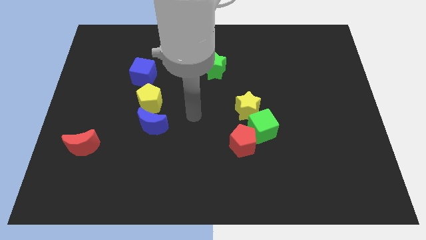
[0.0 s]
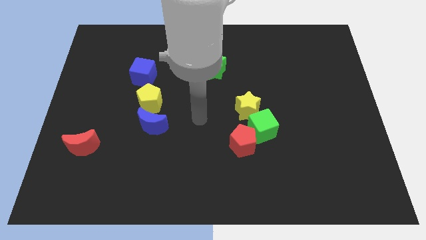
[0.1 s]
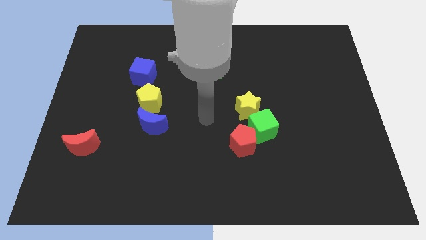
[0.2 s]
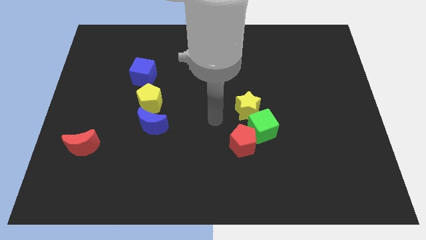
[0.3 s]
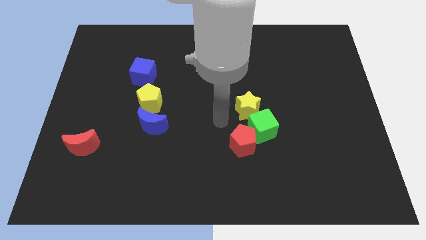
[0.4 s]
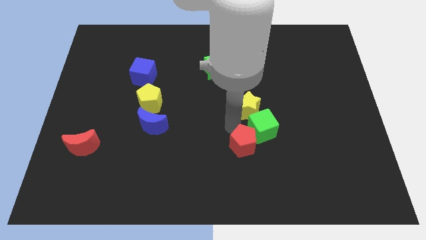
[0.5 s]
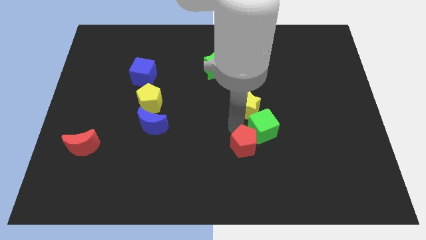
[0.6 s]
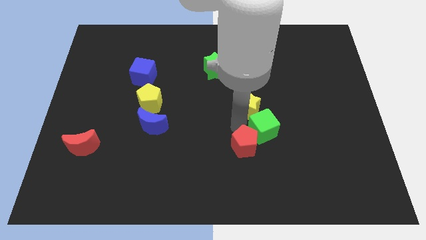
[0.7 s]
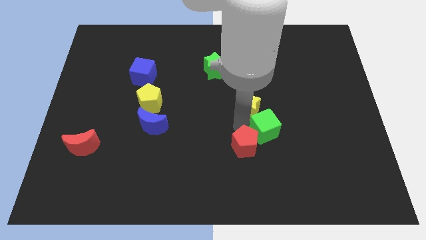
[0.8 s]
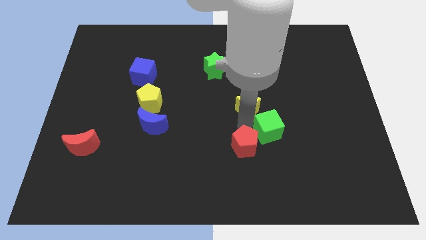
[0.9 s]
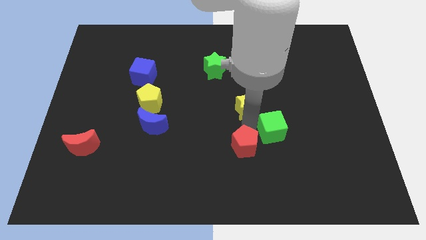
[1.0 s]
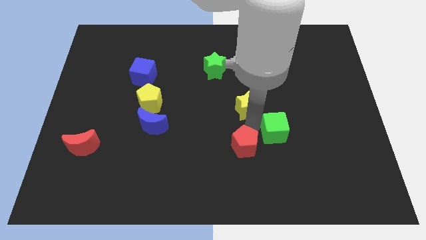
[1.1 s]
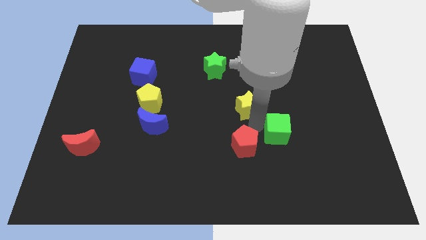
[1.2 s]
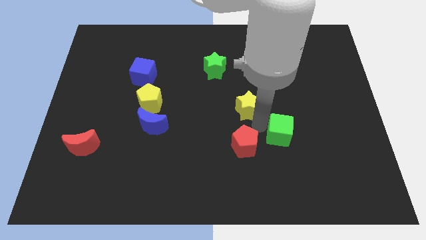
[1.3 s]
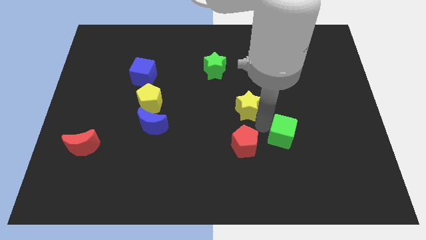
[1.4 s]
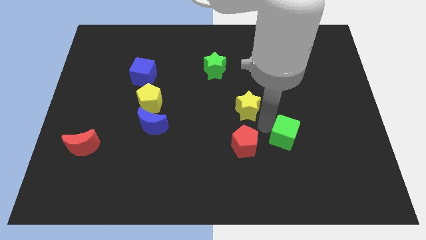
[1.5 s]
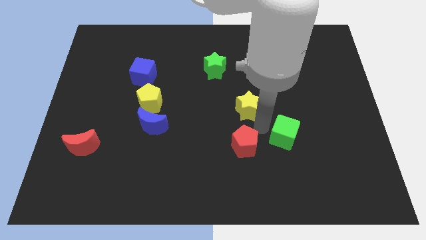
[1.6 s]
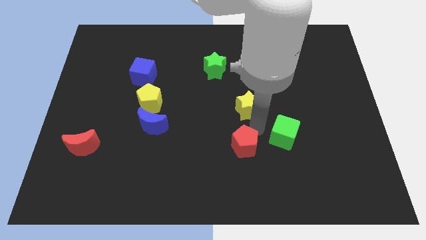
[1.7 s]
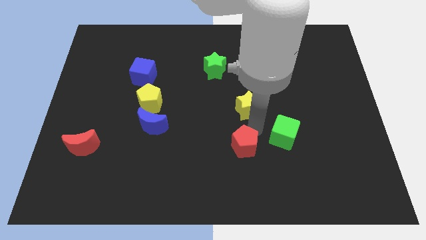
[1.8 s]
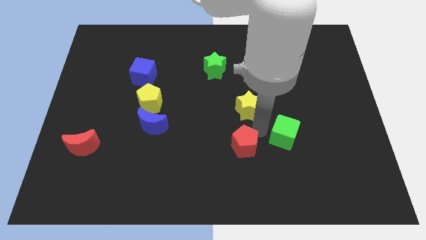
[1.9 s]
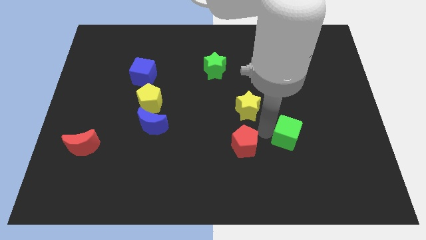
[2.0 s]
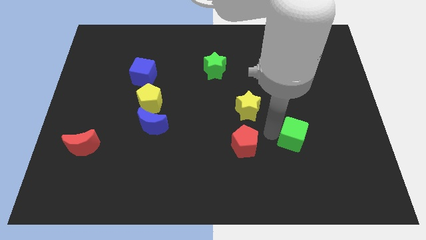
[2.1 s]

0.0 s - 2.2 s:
move the green cube away from the red pentagon and yellow star

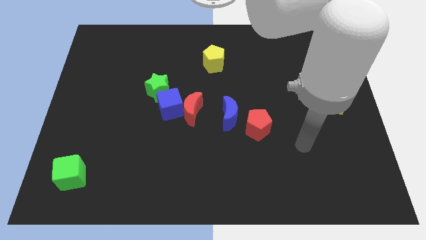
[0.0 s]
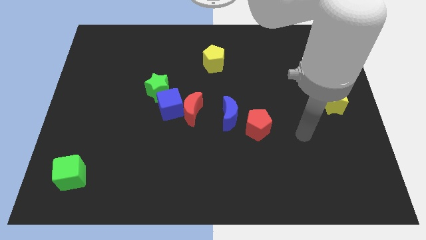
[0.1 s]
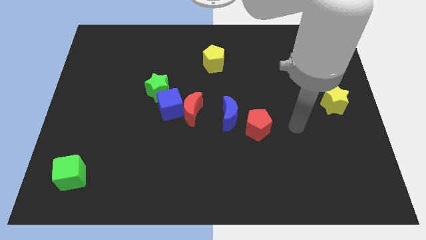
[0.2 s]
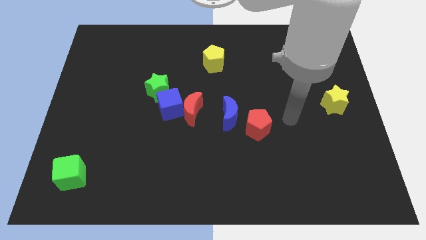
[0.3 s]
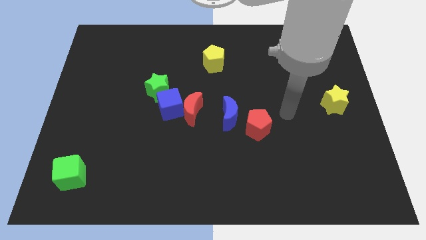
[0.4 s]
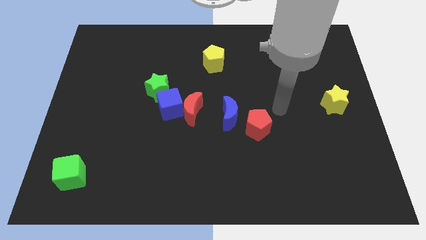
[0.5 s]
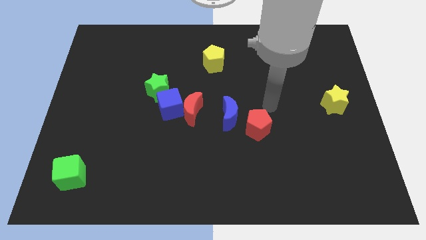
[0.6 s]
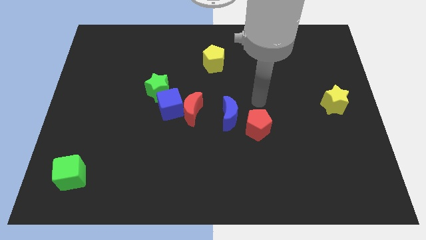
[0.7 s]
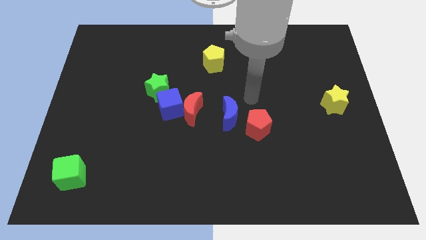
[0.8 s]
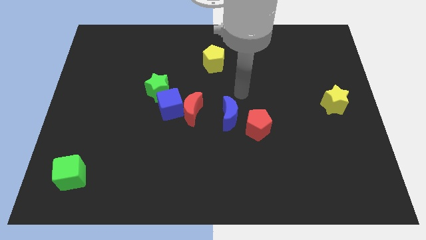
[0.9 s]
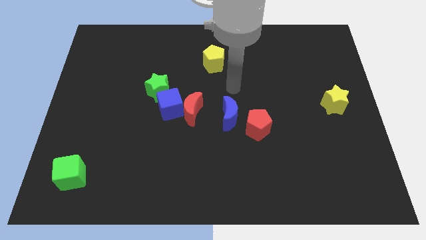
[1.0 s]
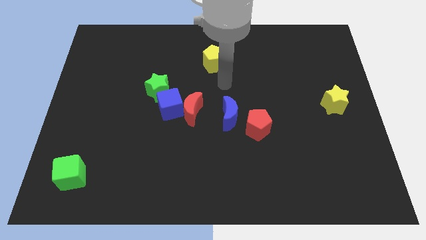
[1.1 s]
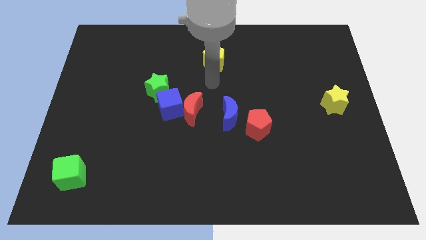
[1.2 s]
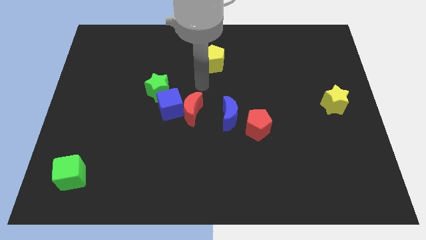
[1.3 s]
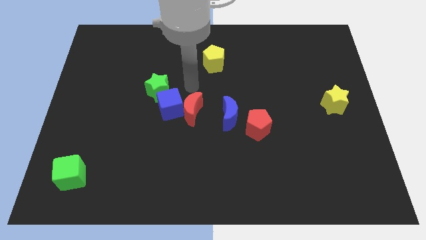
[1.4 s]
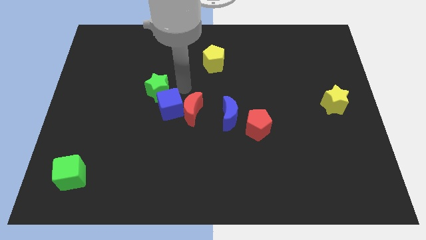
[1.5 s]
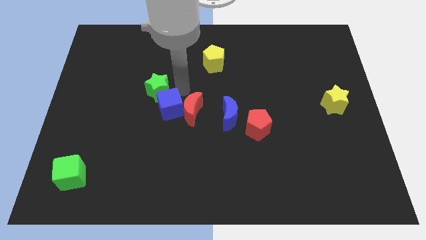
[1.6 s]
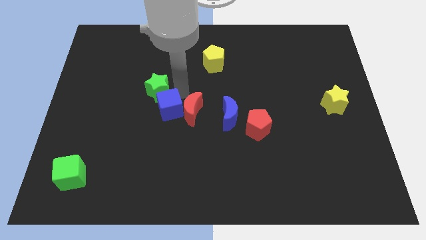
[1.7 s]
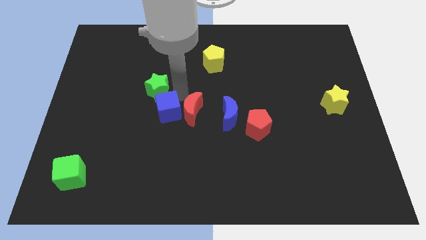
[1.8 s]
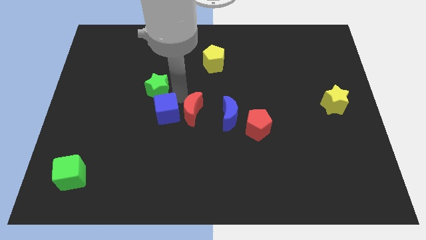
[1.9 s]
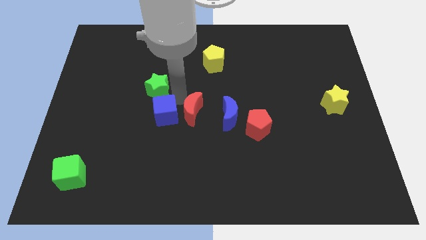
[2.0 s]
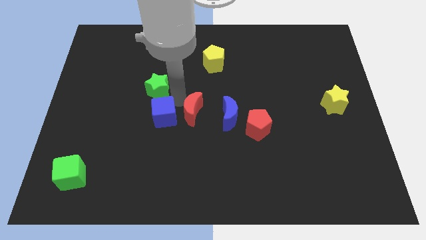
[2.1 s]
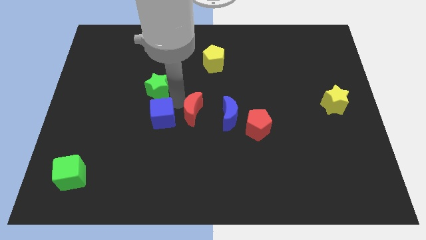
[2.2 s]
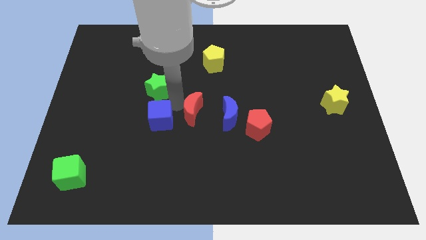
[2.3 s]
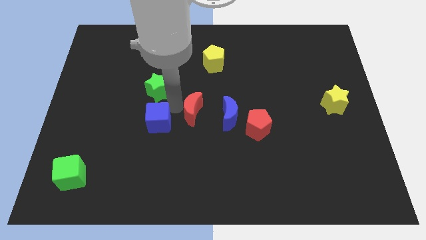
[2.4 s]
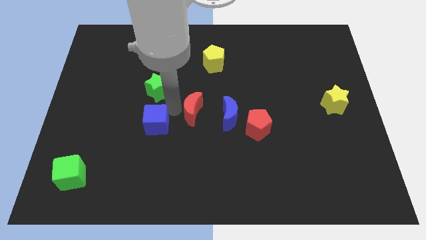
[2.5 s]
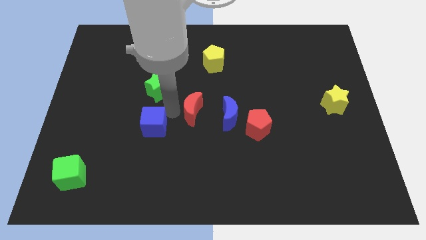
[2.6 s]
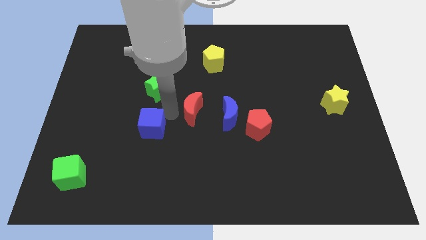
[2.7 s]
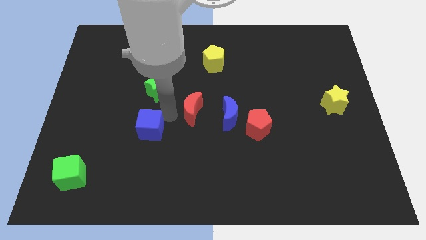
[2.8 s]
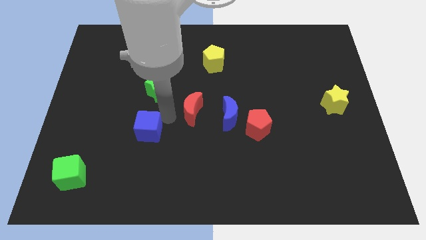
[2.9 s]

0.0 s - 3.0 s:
move the blue cube away from the red moon and green star

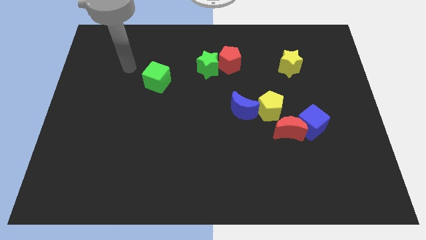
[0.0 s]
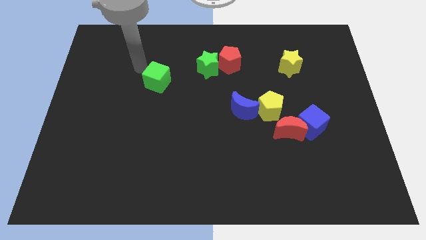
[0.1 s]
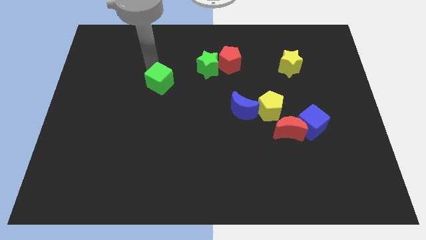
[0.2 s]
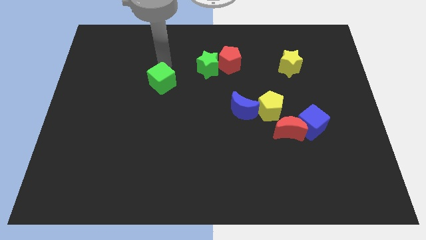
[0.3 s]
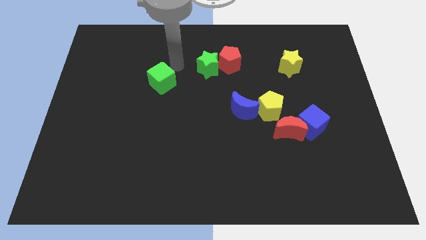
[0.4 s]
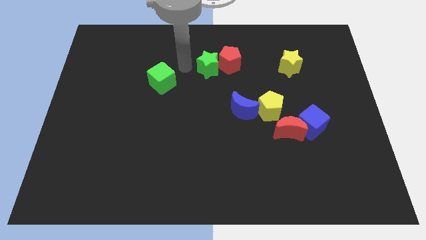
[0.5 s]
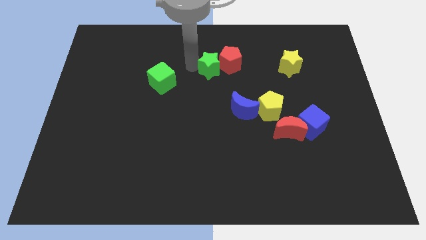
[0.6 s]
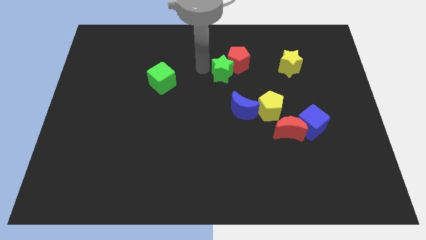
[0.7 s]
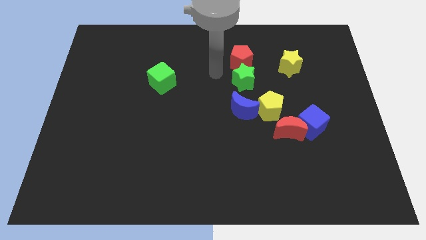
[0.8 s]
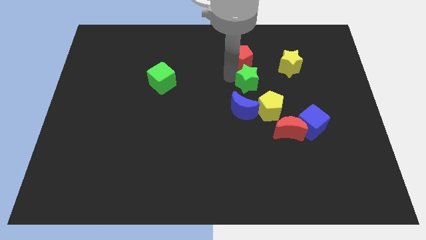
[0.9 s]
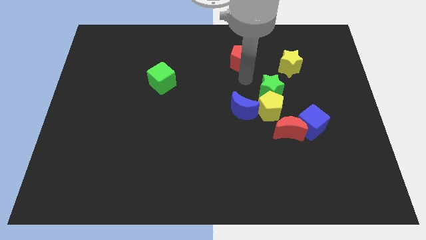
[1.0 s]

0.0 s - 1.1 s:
move the red pentagon away from the green star

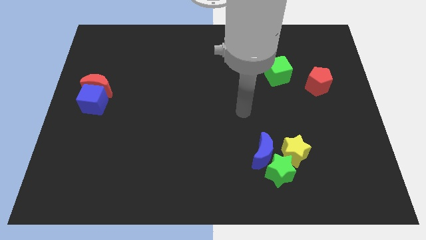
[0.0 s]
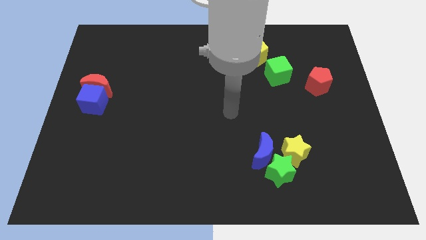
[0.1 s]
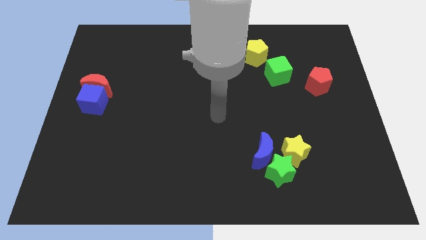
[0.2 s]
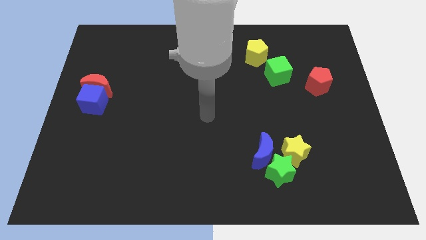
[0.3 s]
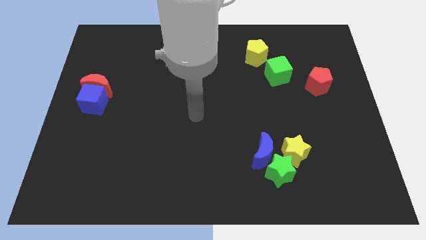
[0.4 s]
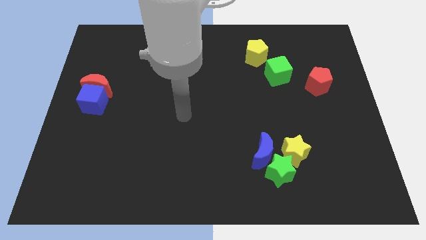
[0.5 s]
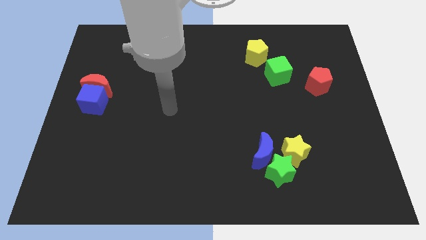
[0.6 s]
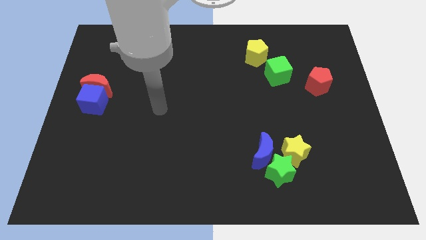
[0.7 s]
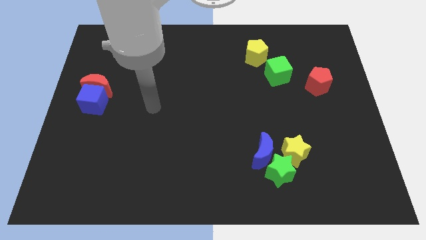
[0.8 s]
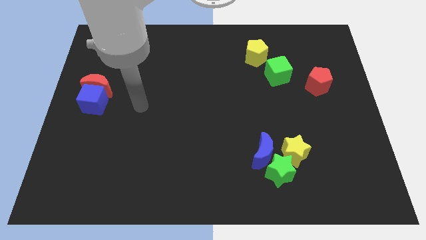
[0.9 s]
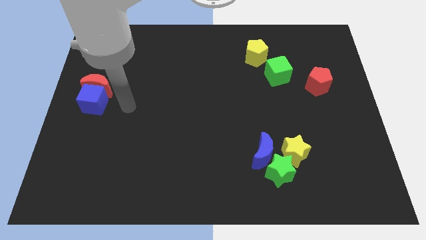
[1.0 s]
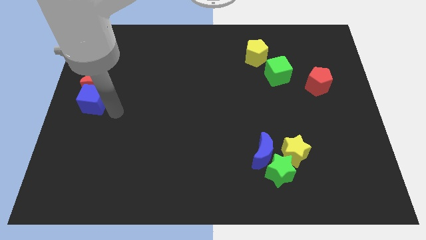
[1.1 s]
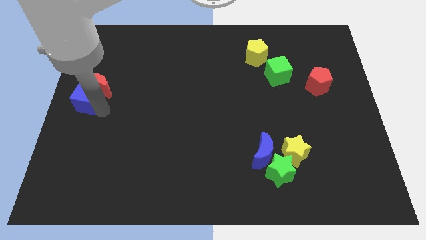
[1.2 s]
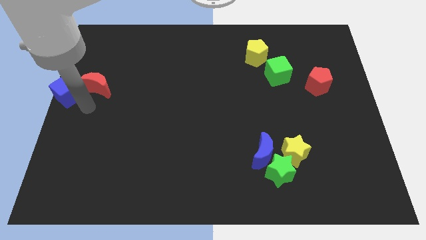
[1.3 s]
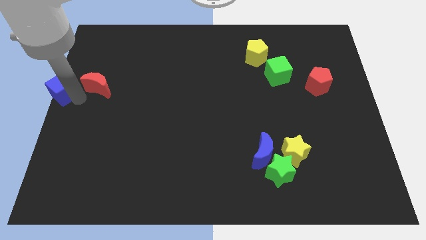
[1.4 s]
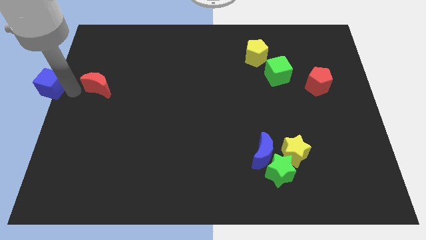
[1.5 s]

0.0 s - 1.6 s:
separate the red moon from the blue cube

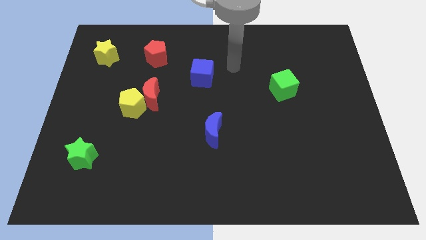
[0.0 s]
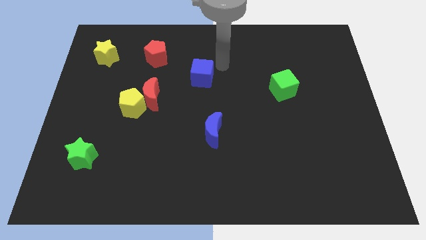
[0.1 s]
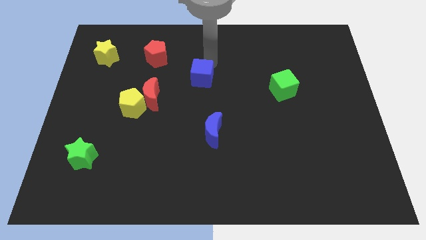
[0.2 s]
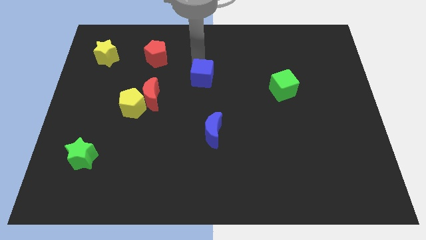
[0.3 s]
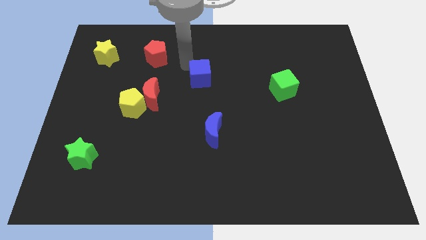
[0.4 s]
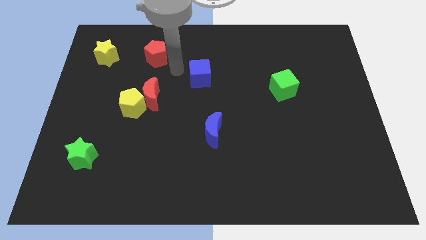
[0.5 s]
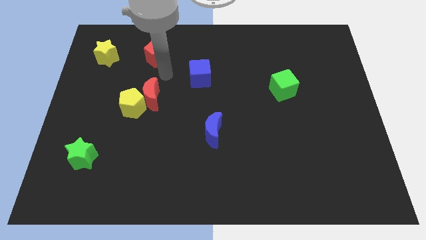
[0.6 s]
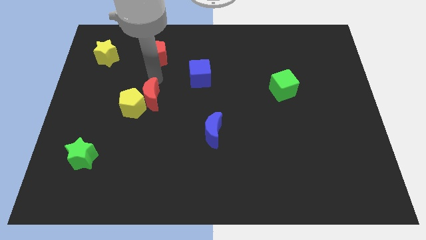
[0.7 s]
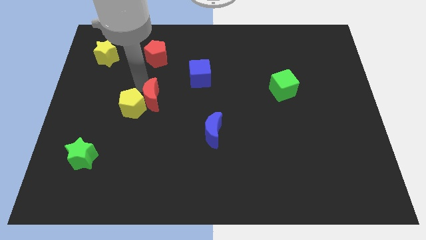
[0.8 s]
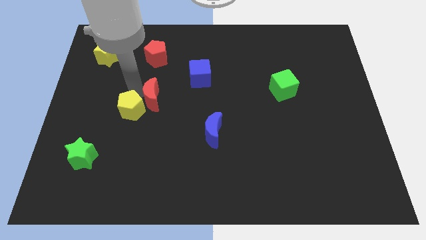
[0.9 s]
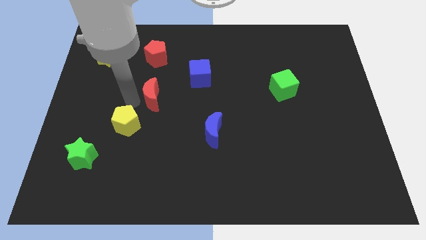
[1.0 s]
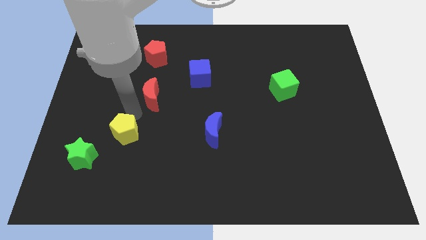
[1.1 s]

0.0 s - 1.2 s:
separate the red moon from the yellow pentagon
